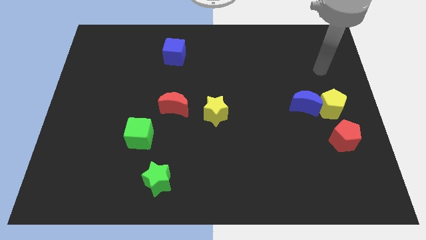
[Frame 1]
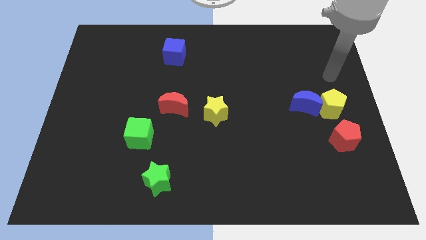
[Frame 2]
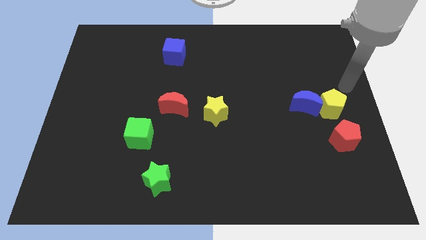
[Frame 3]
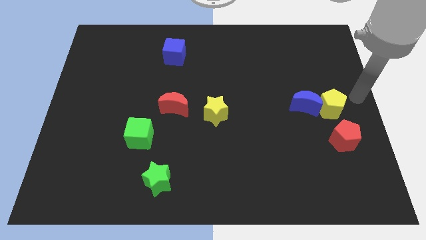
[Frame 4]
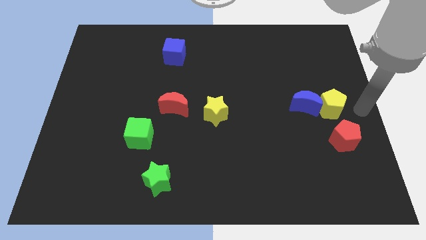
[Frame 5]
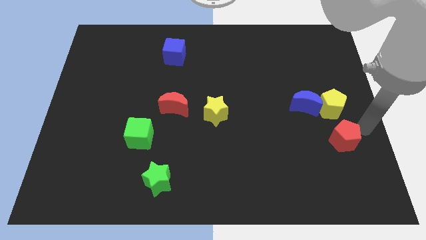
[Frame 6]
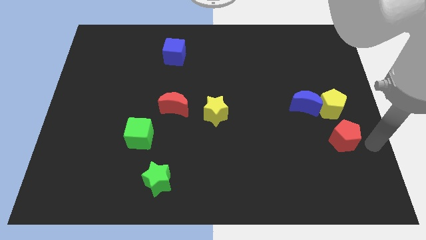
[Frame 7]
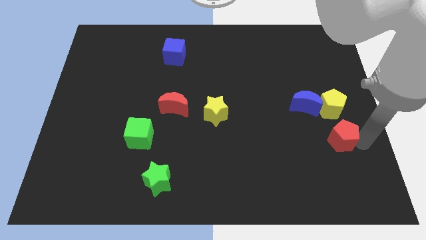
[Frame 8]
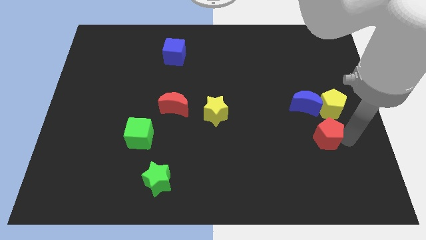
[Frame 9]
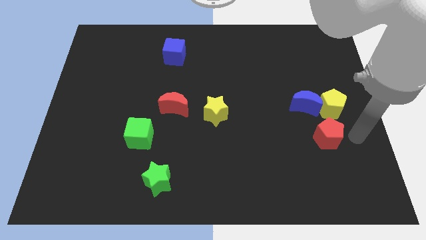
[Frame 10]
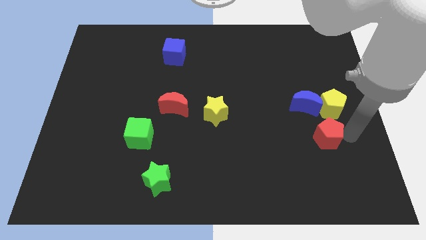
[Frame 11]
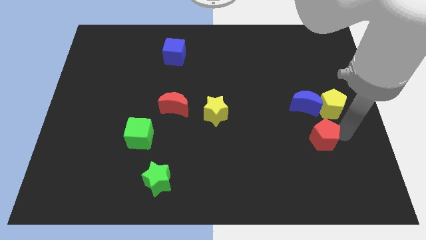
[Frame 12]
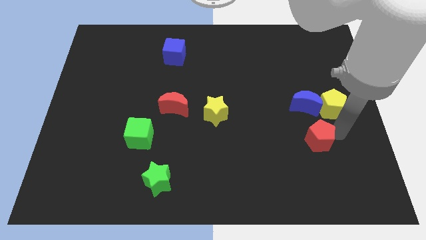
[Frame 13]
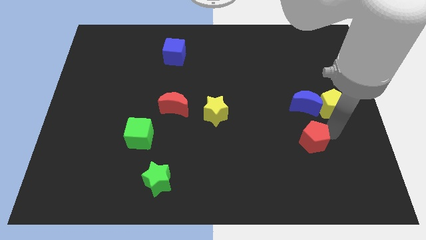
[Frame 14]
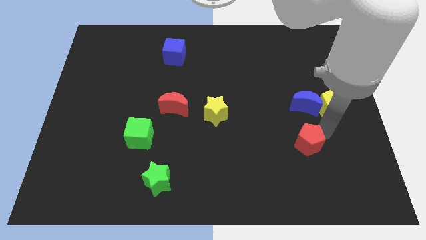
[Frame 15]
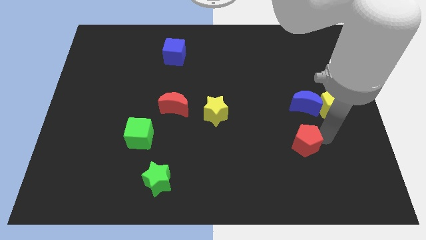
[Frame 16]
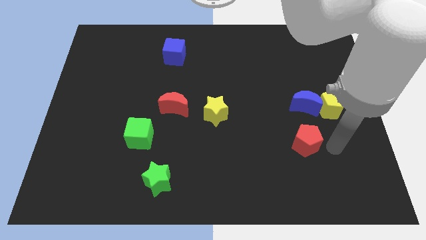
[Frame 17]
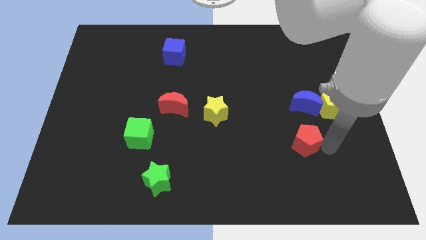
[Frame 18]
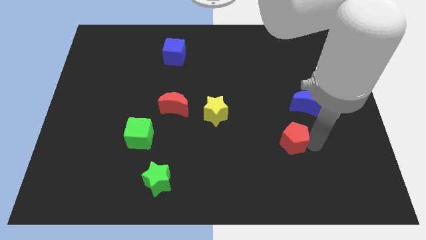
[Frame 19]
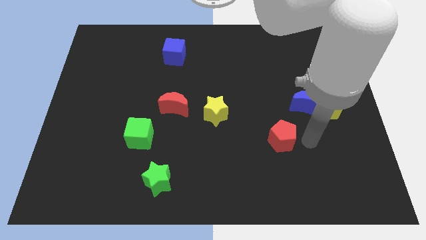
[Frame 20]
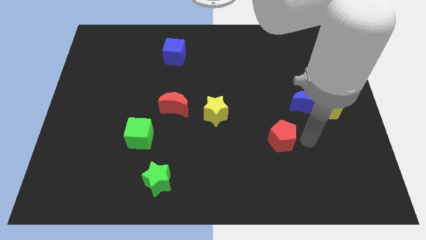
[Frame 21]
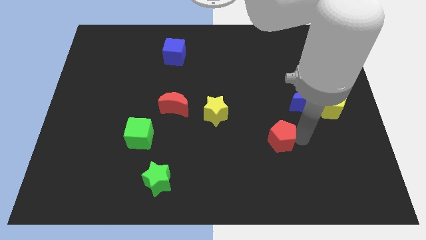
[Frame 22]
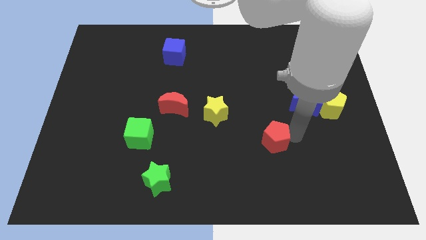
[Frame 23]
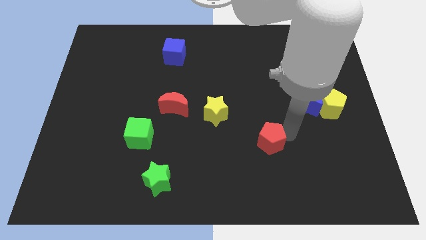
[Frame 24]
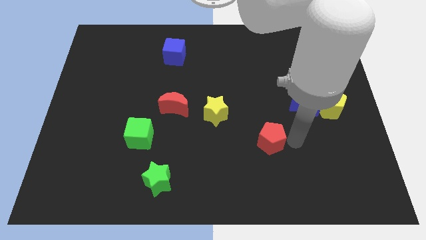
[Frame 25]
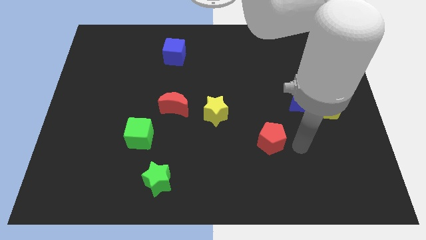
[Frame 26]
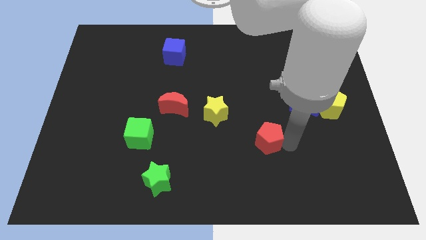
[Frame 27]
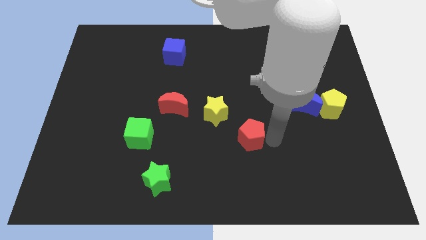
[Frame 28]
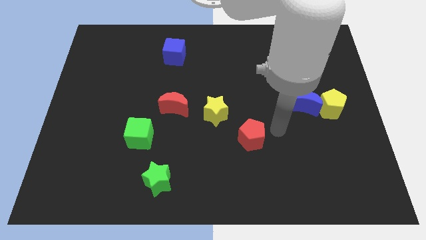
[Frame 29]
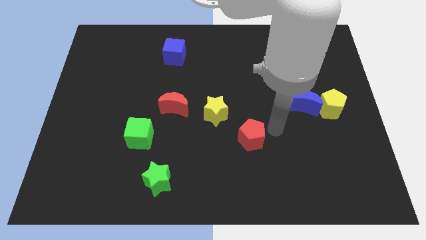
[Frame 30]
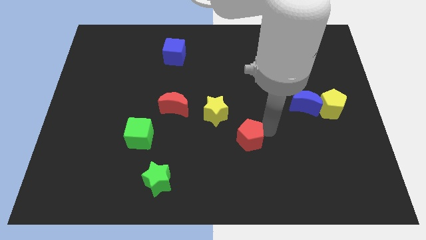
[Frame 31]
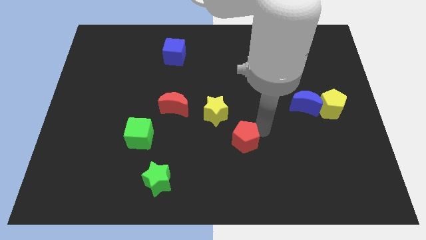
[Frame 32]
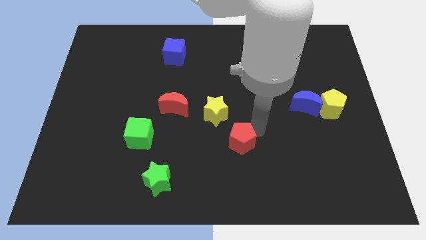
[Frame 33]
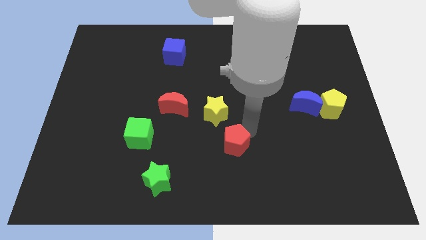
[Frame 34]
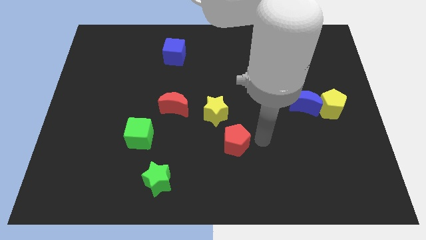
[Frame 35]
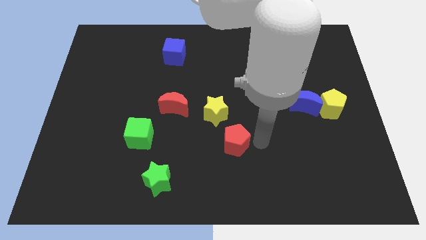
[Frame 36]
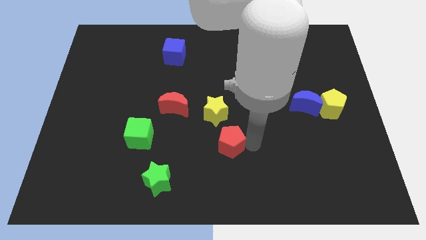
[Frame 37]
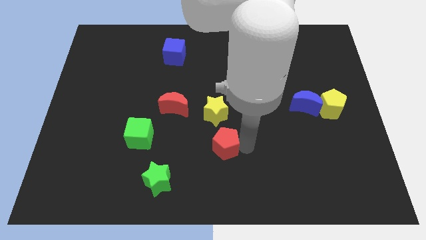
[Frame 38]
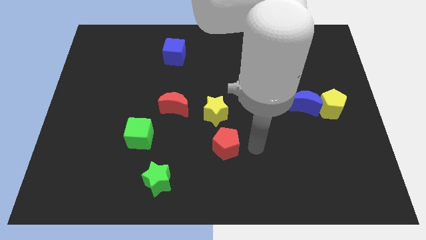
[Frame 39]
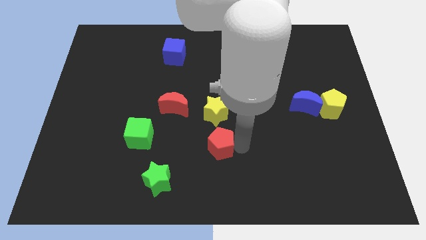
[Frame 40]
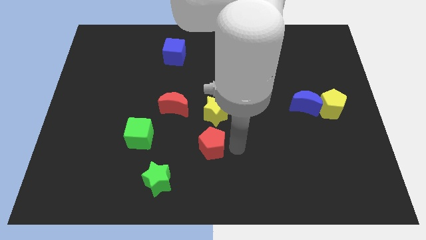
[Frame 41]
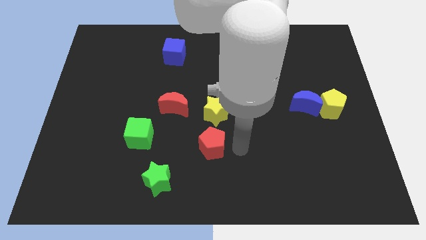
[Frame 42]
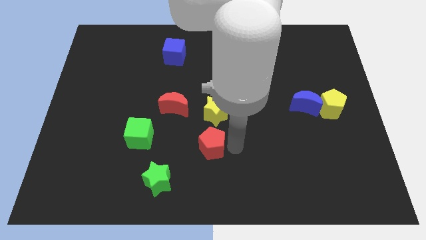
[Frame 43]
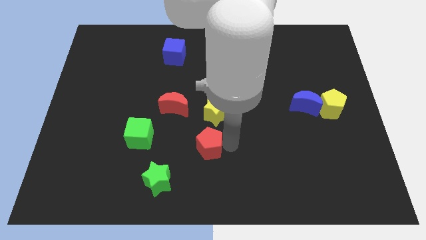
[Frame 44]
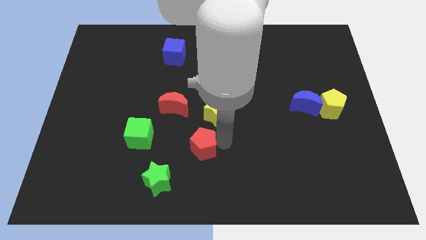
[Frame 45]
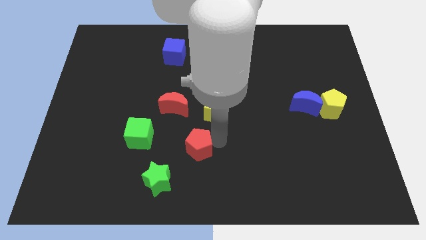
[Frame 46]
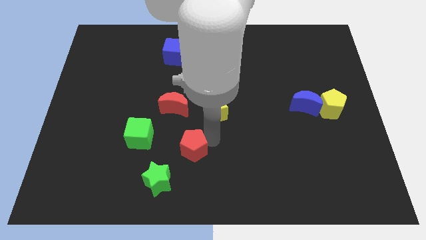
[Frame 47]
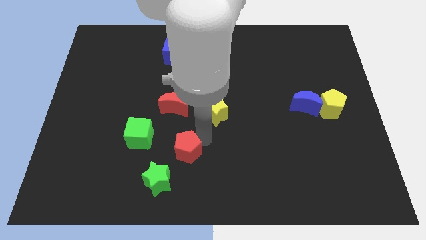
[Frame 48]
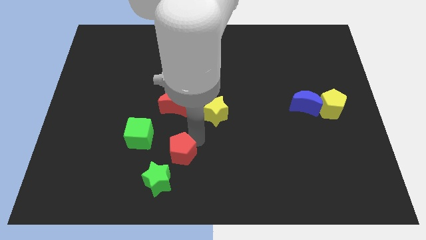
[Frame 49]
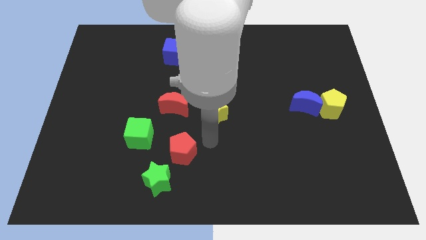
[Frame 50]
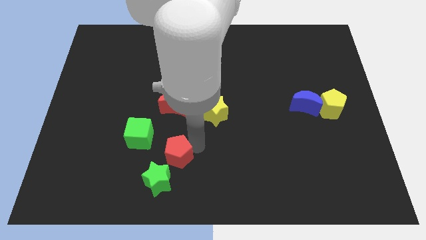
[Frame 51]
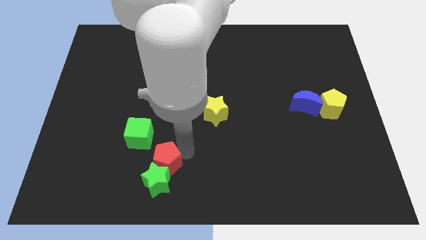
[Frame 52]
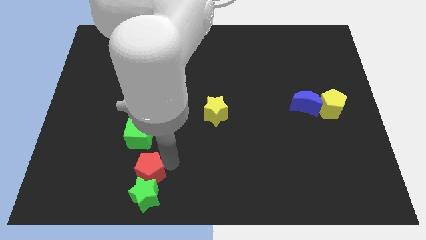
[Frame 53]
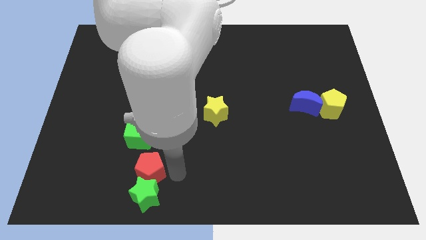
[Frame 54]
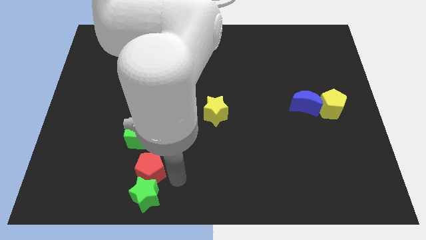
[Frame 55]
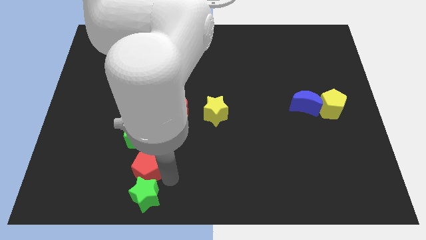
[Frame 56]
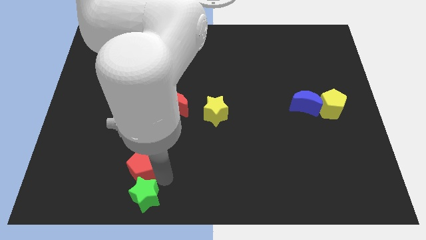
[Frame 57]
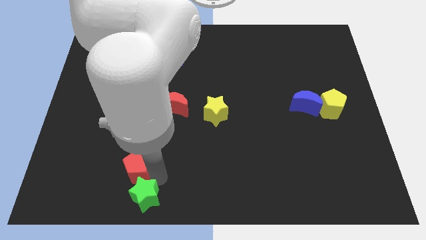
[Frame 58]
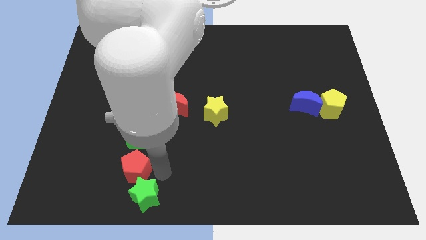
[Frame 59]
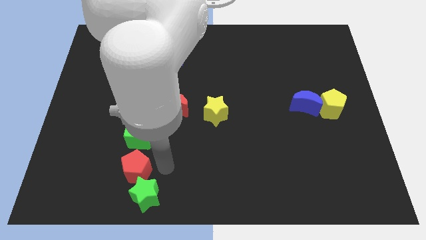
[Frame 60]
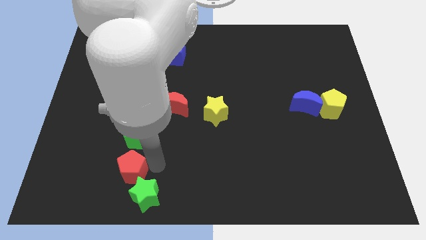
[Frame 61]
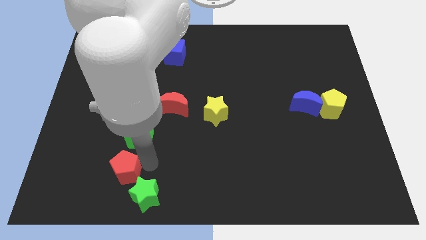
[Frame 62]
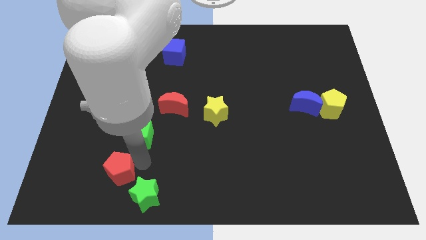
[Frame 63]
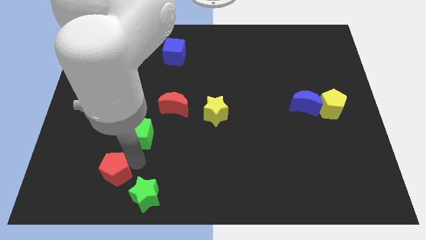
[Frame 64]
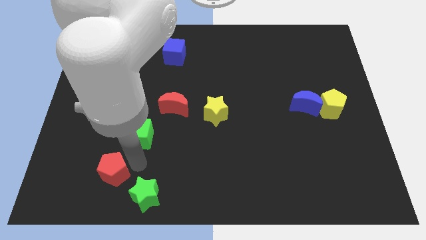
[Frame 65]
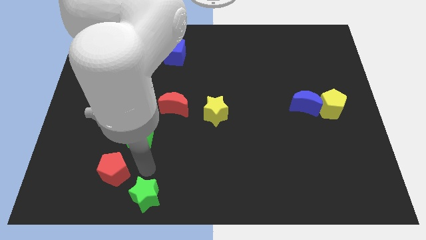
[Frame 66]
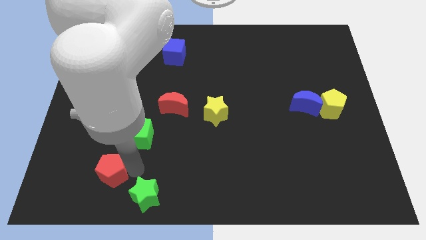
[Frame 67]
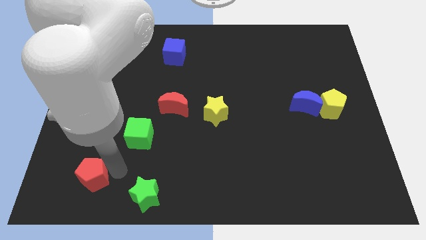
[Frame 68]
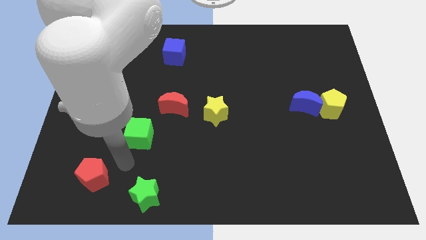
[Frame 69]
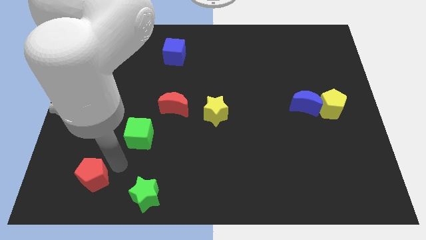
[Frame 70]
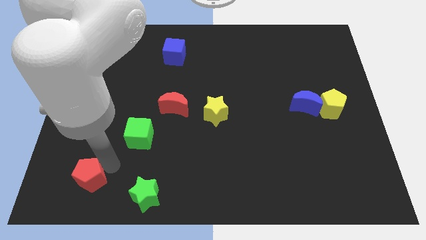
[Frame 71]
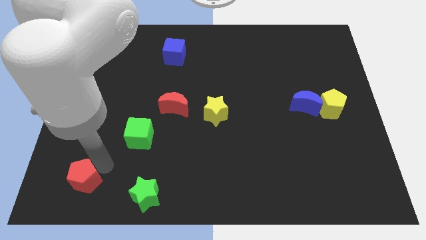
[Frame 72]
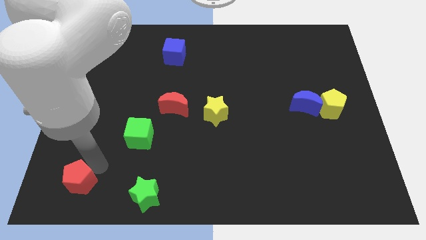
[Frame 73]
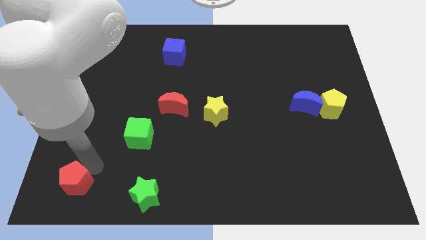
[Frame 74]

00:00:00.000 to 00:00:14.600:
slide the red pentagon to the bottom left of the board
